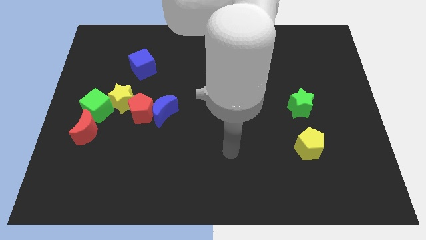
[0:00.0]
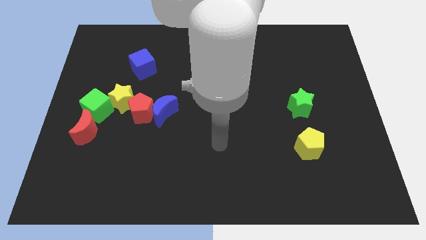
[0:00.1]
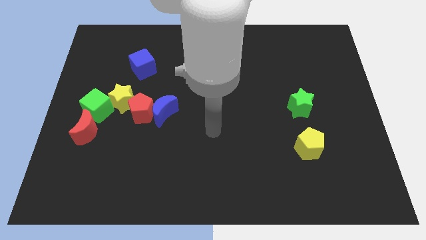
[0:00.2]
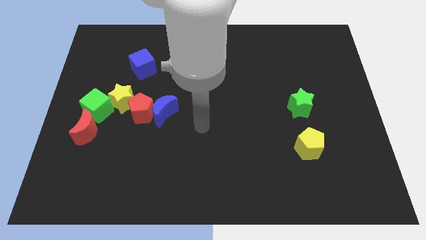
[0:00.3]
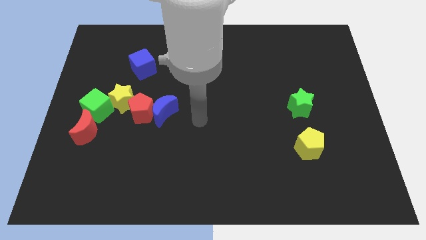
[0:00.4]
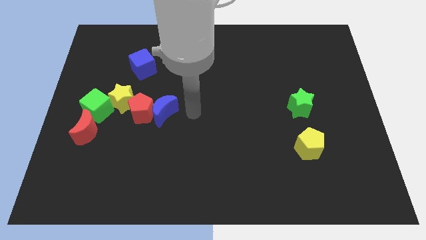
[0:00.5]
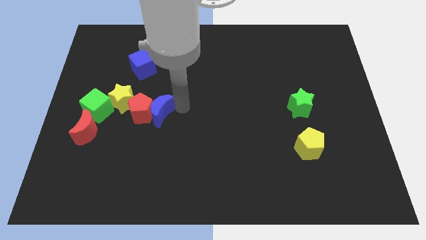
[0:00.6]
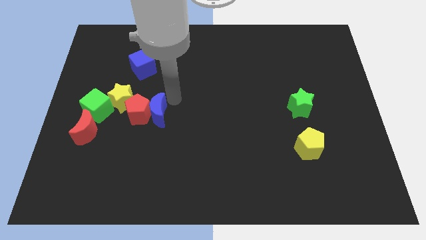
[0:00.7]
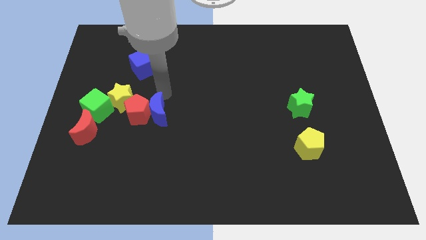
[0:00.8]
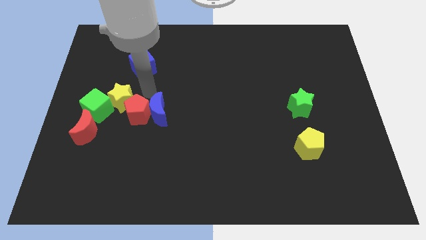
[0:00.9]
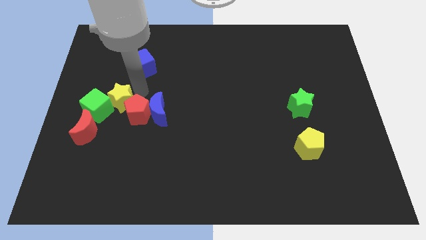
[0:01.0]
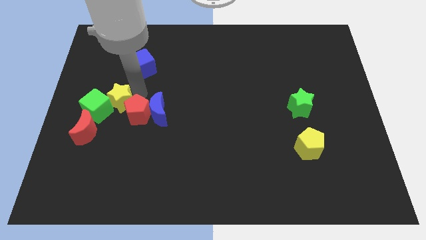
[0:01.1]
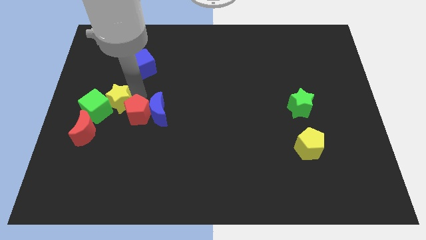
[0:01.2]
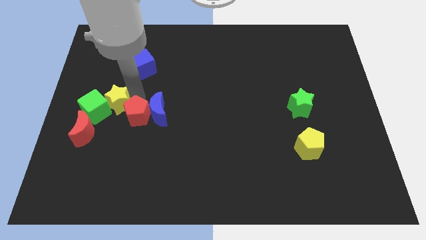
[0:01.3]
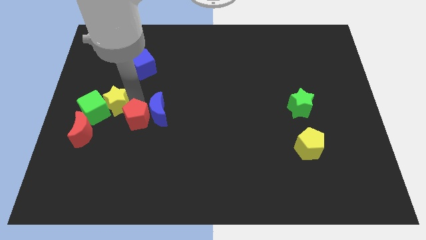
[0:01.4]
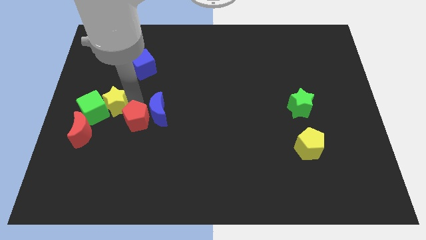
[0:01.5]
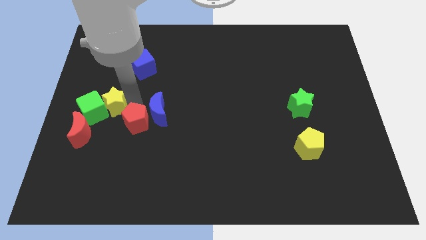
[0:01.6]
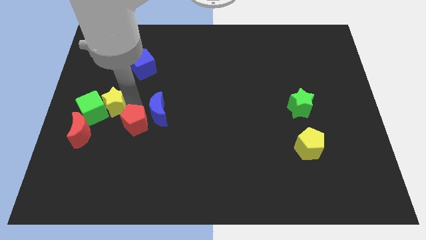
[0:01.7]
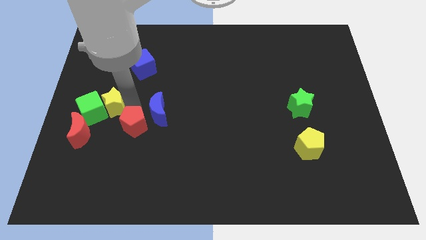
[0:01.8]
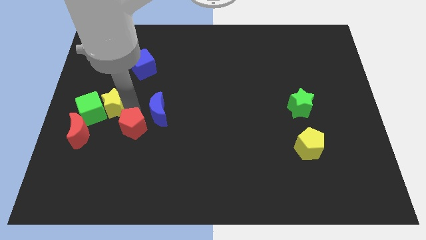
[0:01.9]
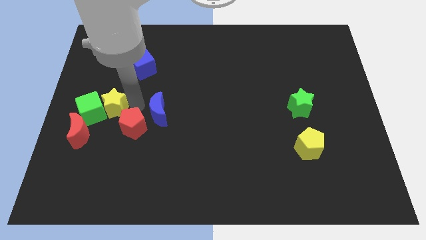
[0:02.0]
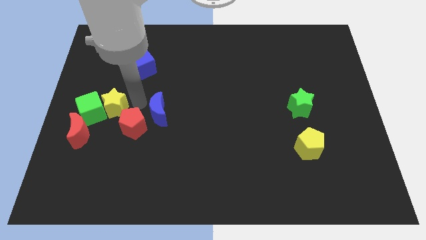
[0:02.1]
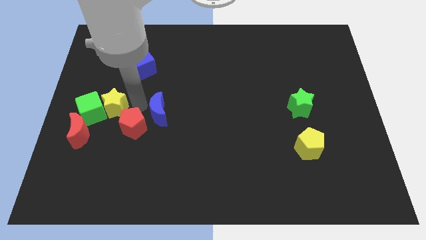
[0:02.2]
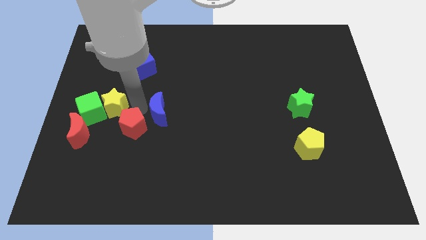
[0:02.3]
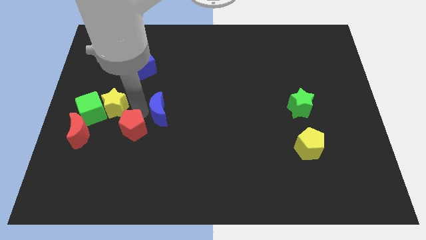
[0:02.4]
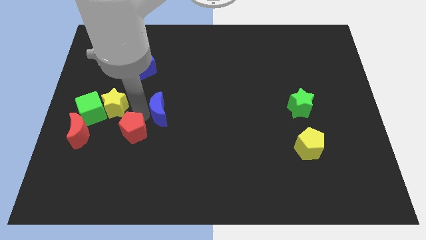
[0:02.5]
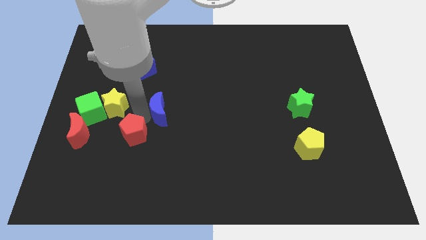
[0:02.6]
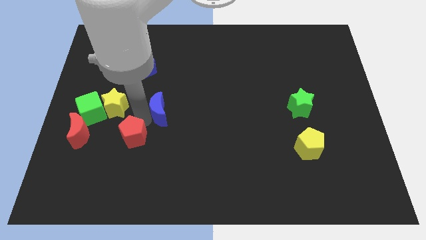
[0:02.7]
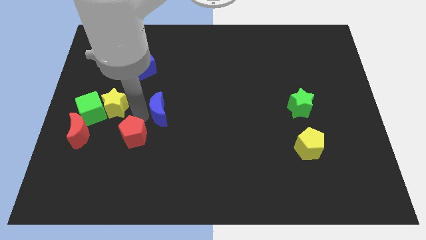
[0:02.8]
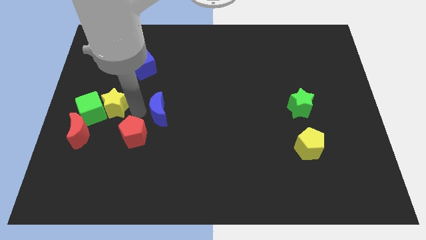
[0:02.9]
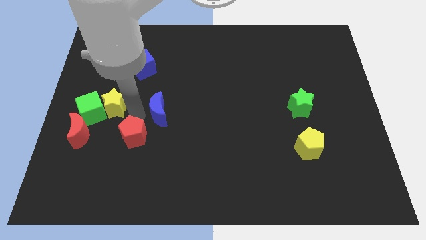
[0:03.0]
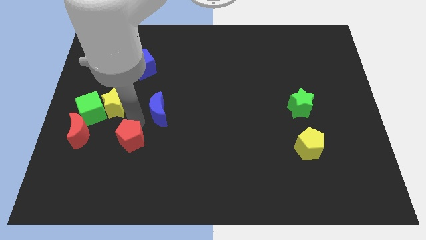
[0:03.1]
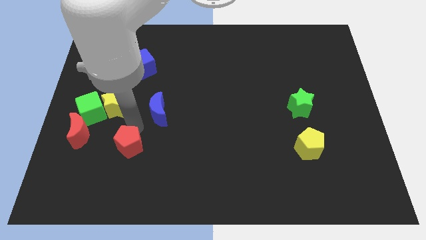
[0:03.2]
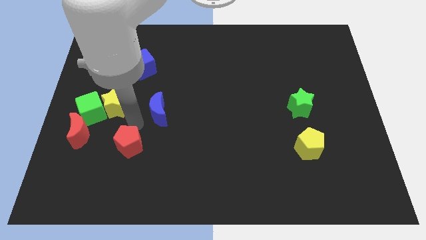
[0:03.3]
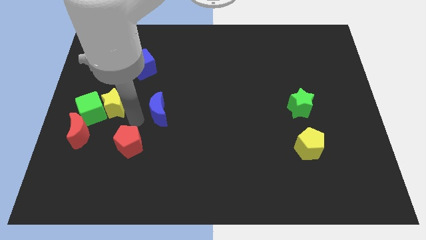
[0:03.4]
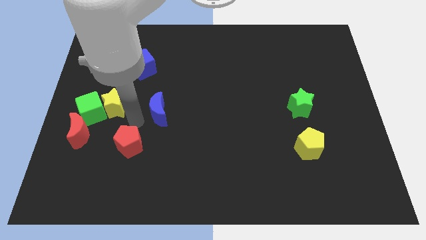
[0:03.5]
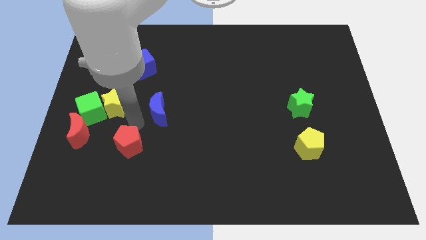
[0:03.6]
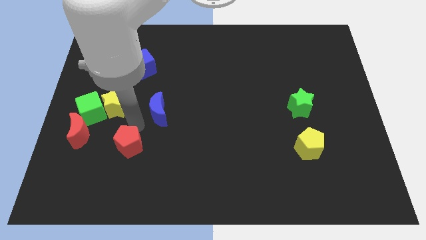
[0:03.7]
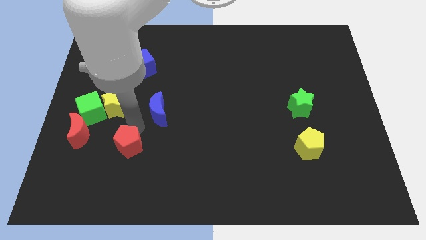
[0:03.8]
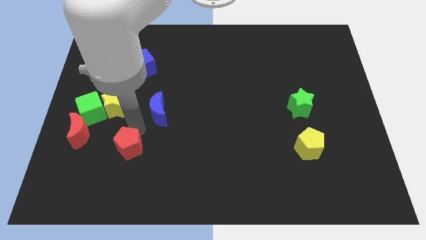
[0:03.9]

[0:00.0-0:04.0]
move the red pentagon away from the blue moon and yellow star

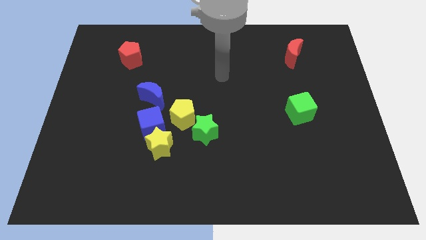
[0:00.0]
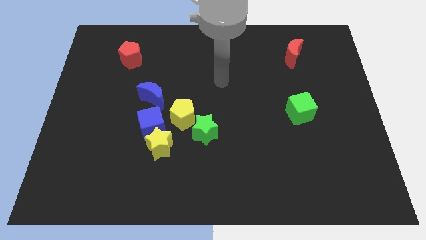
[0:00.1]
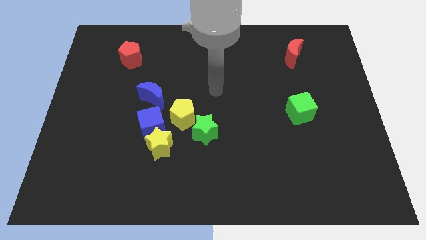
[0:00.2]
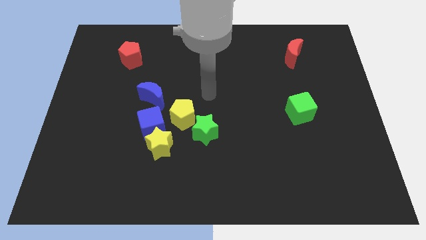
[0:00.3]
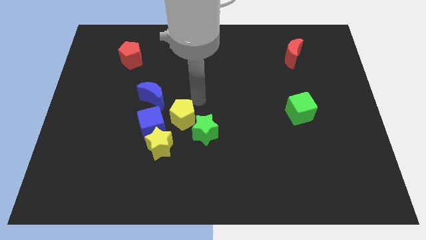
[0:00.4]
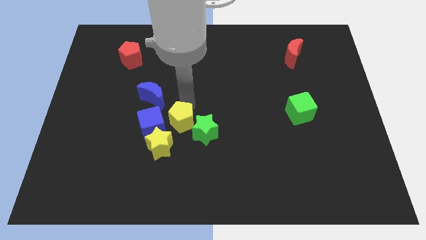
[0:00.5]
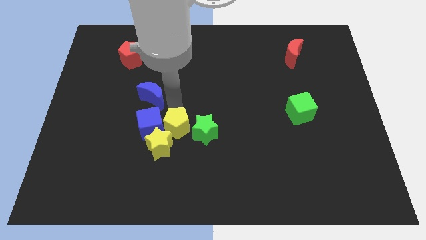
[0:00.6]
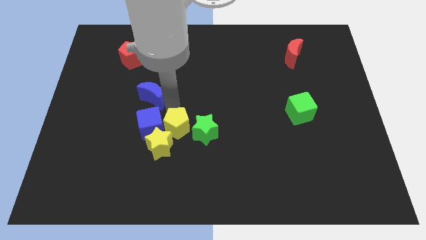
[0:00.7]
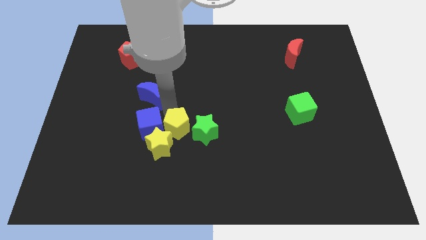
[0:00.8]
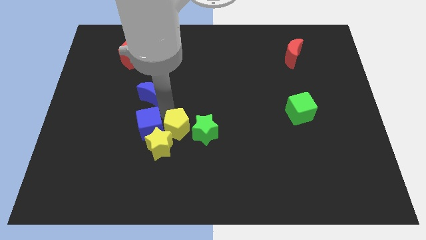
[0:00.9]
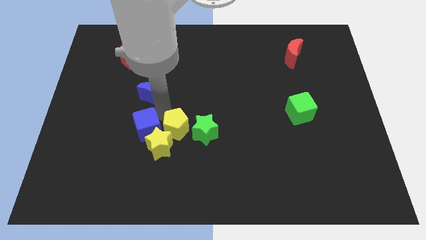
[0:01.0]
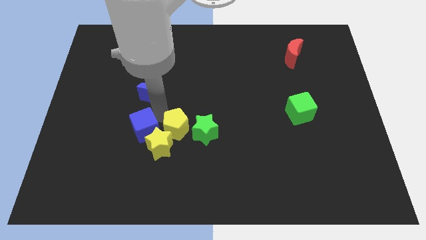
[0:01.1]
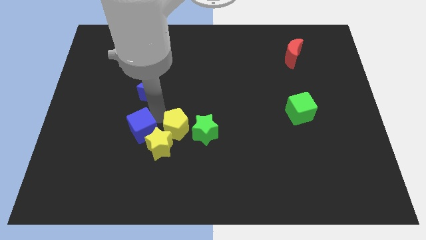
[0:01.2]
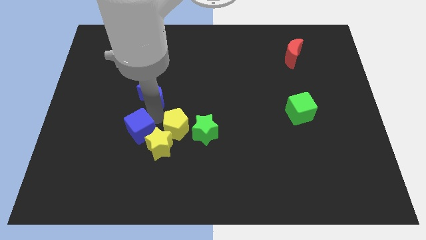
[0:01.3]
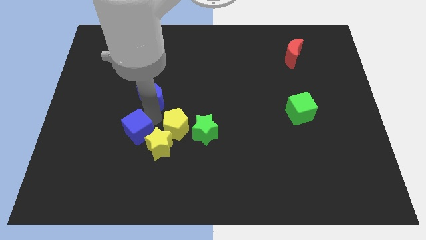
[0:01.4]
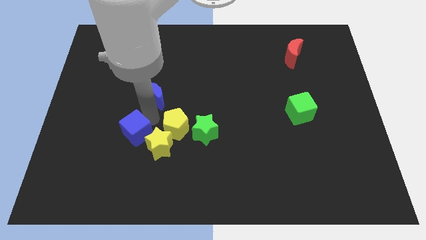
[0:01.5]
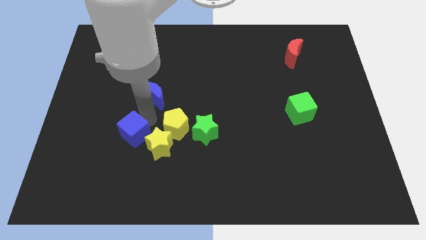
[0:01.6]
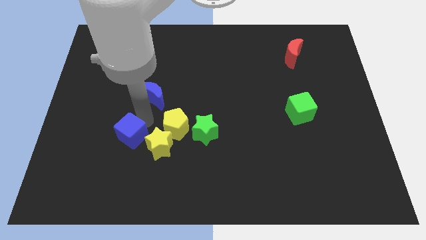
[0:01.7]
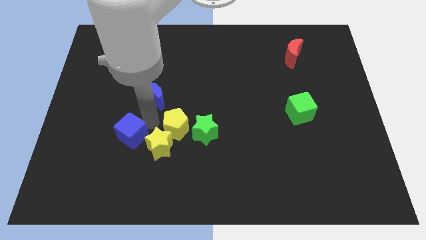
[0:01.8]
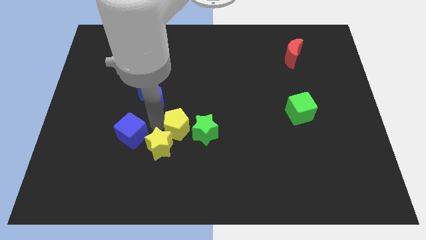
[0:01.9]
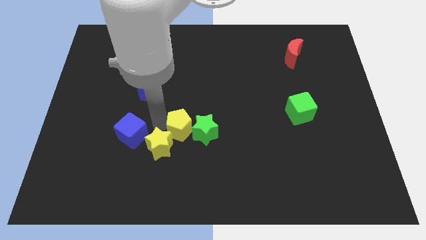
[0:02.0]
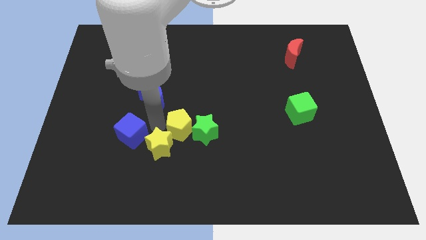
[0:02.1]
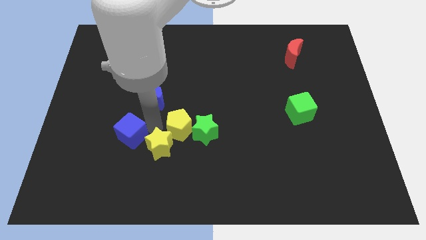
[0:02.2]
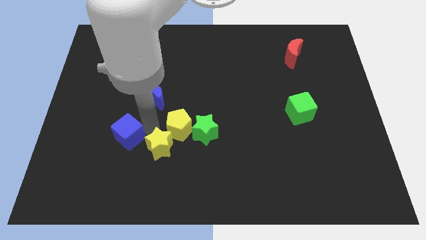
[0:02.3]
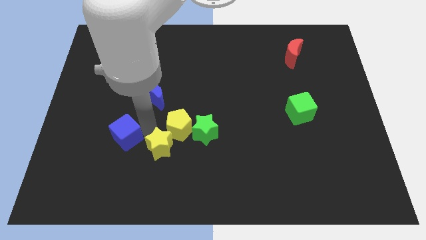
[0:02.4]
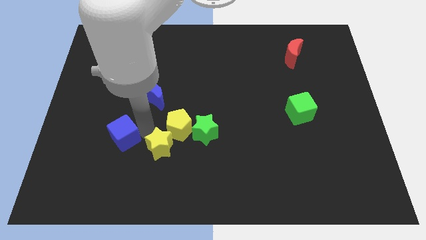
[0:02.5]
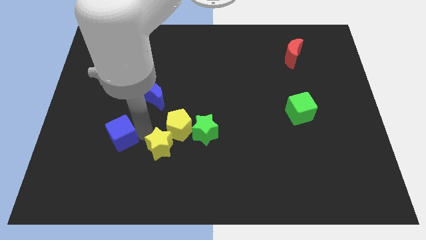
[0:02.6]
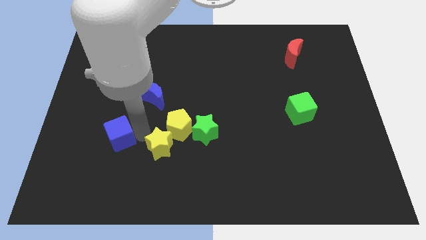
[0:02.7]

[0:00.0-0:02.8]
separate the blue cube from the yellow star, yellow pentagon, and blue moon

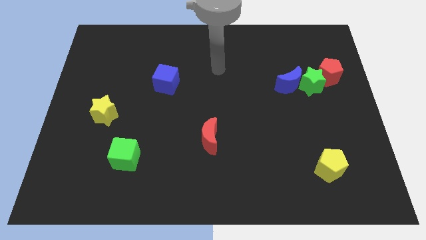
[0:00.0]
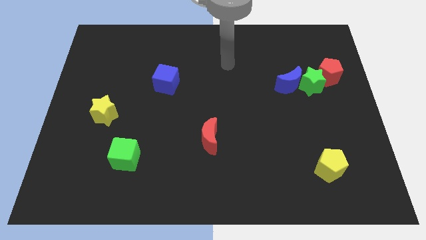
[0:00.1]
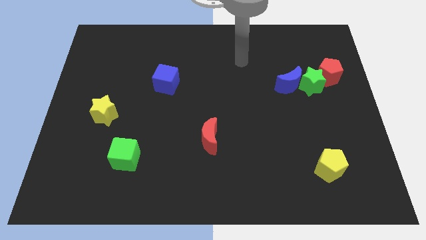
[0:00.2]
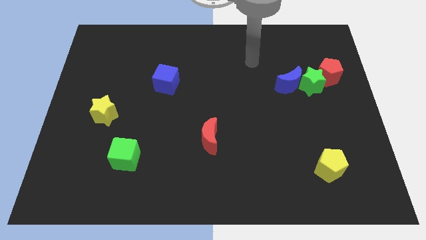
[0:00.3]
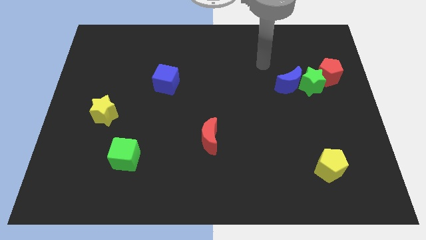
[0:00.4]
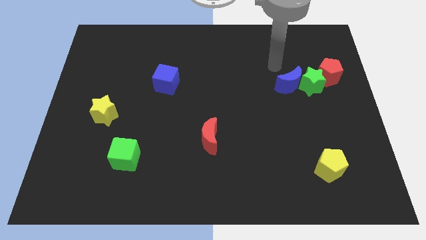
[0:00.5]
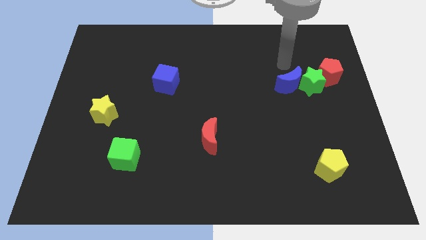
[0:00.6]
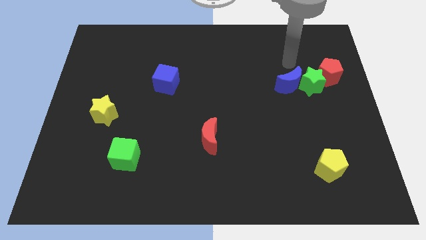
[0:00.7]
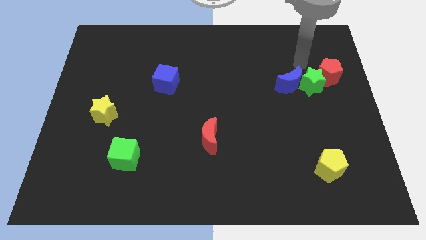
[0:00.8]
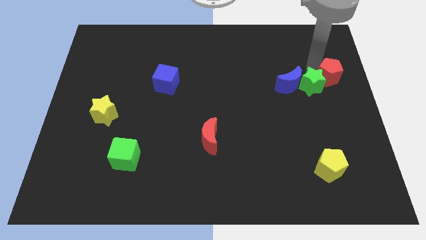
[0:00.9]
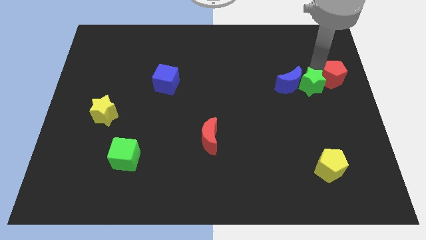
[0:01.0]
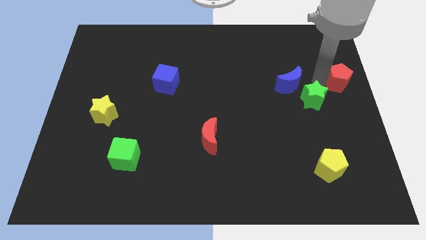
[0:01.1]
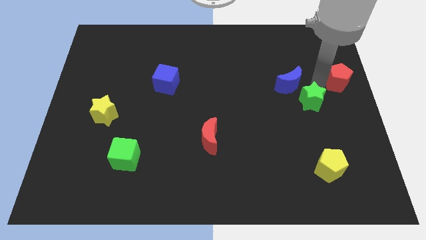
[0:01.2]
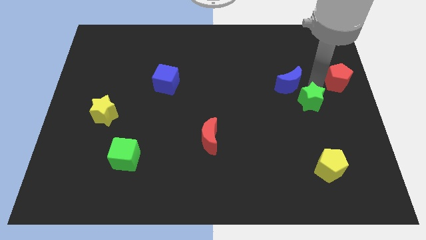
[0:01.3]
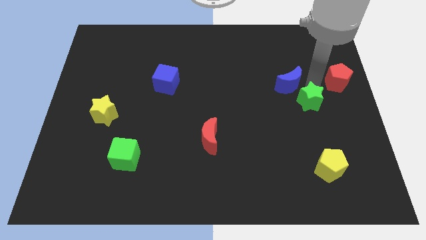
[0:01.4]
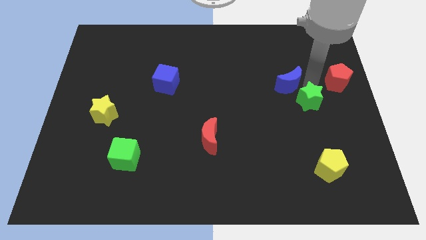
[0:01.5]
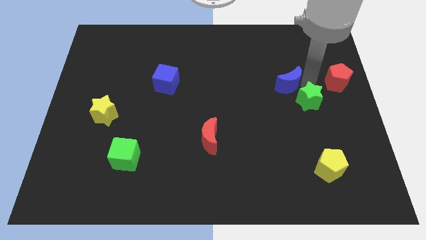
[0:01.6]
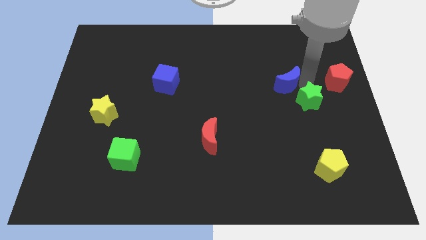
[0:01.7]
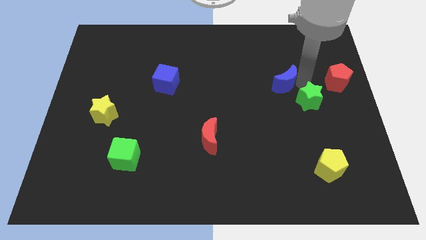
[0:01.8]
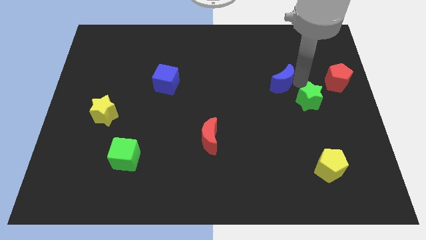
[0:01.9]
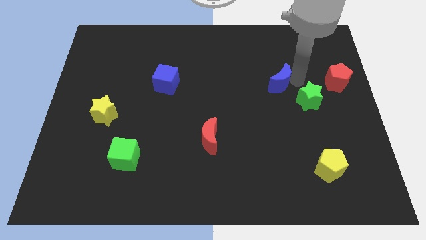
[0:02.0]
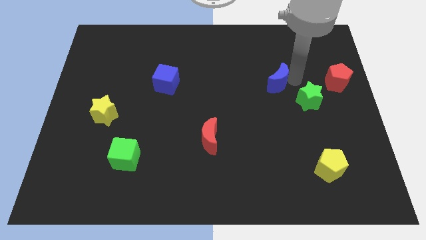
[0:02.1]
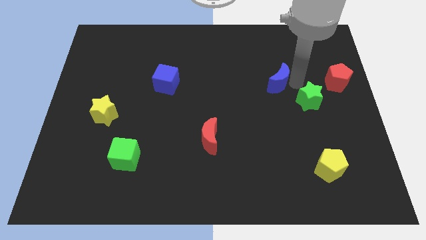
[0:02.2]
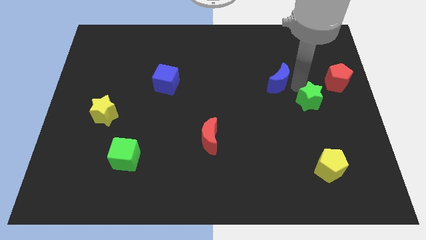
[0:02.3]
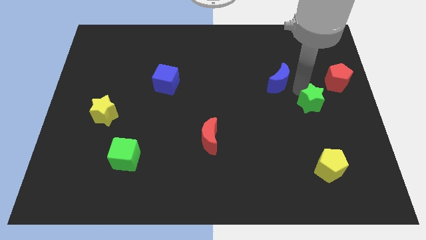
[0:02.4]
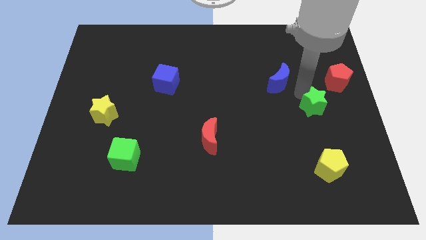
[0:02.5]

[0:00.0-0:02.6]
pull the blue moon apart from the green star
